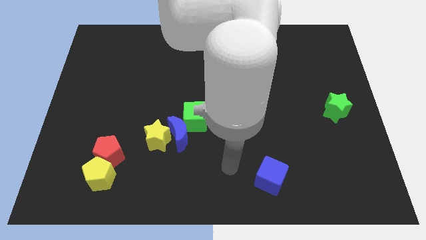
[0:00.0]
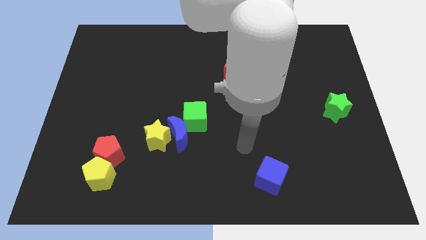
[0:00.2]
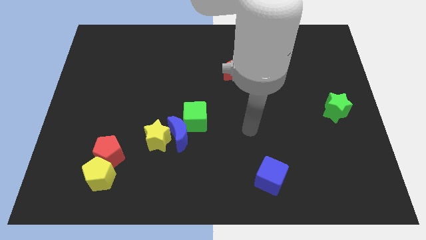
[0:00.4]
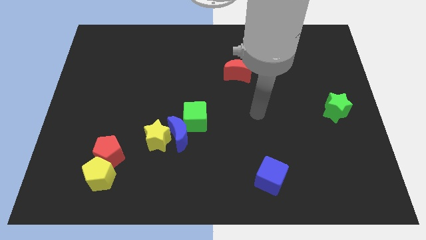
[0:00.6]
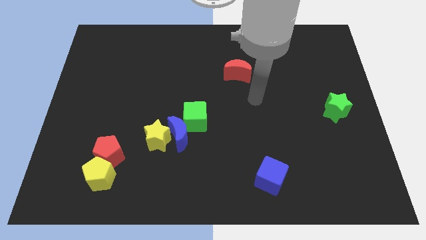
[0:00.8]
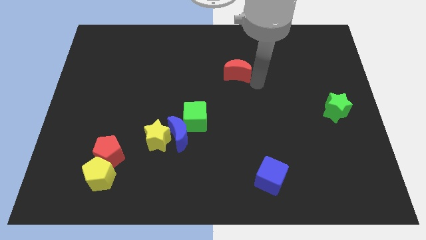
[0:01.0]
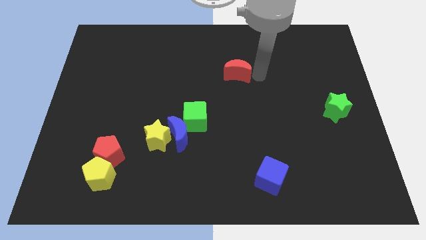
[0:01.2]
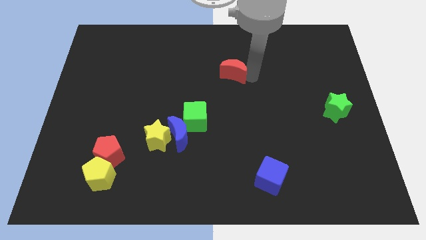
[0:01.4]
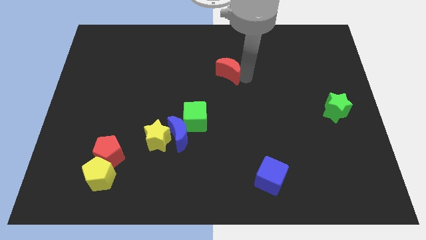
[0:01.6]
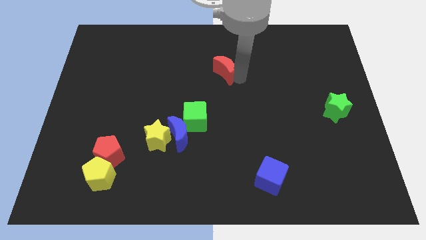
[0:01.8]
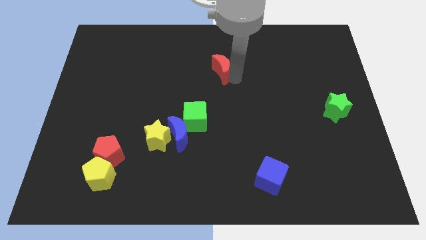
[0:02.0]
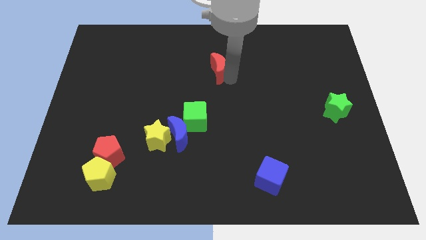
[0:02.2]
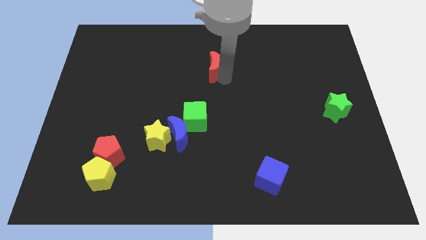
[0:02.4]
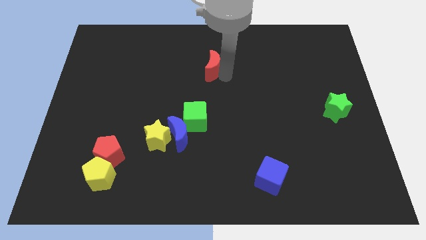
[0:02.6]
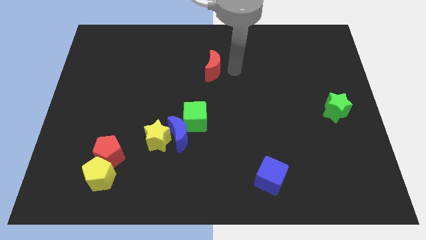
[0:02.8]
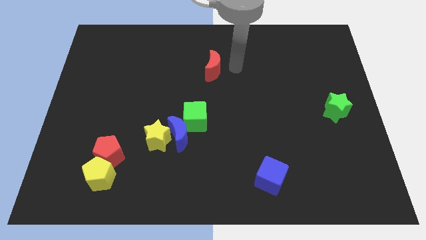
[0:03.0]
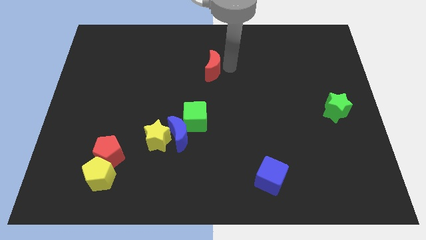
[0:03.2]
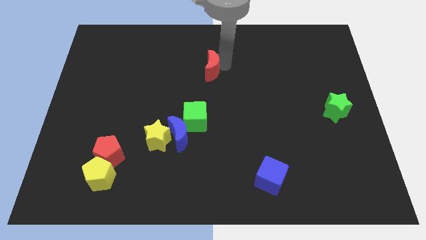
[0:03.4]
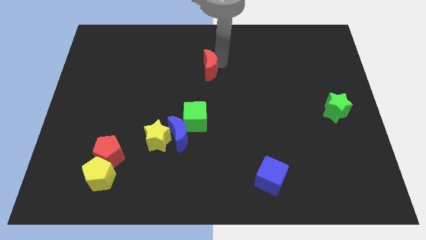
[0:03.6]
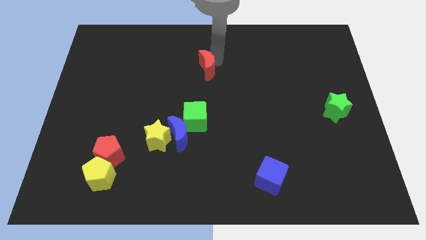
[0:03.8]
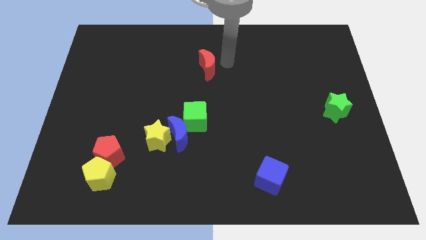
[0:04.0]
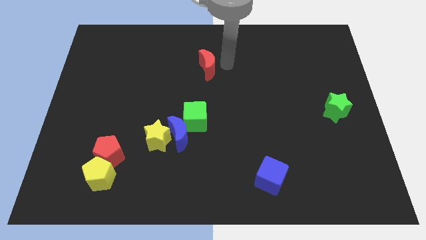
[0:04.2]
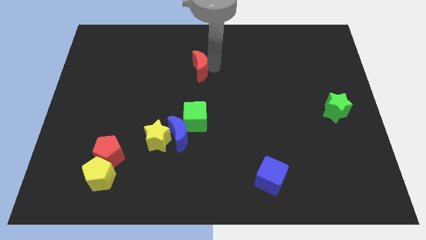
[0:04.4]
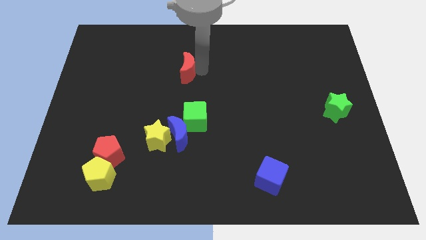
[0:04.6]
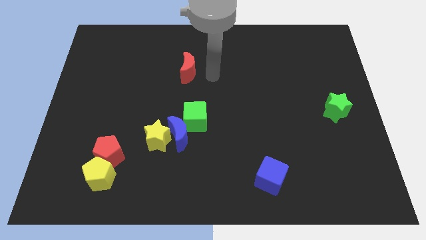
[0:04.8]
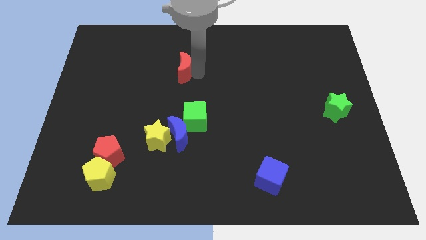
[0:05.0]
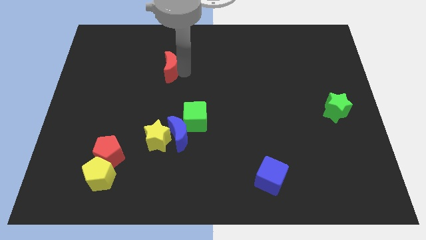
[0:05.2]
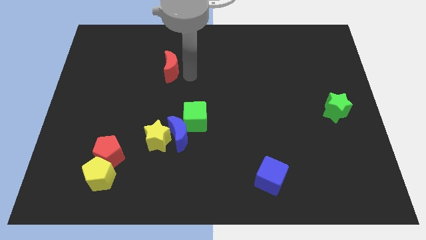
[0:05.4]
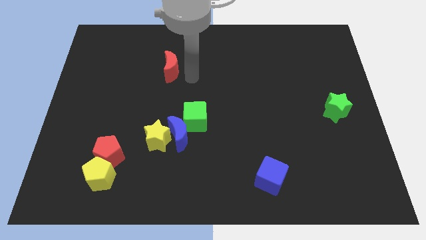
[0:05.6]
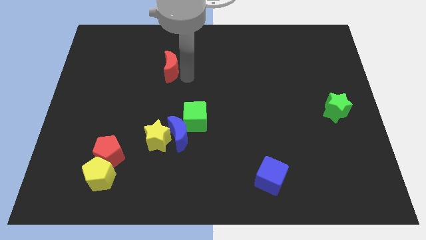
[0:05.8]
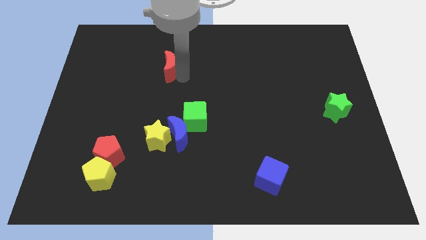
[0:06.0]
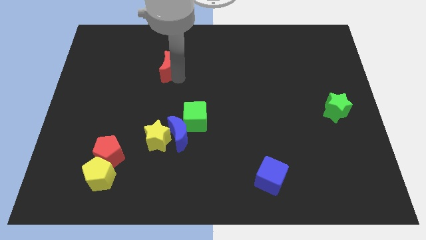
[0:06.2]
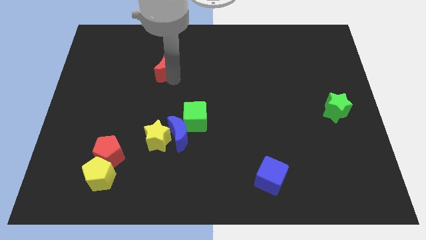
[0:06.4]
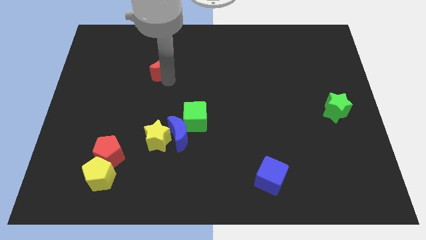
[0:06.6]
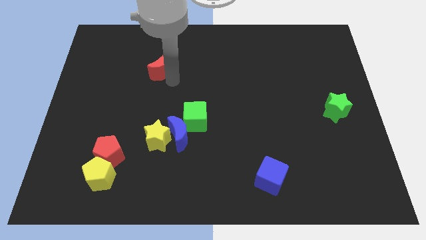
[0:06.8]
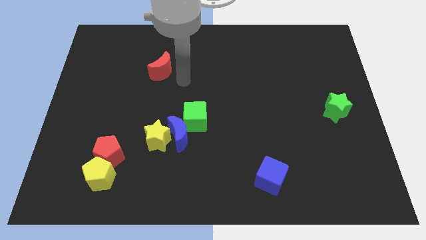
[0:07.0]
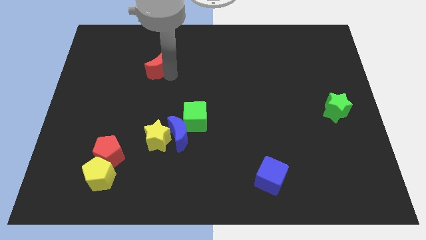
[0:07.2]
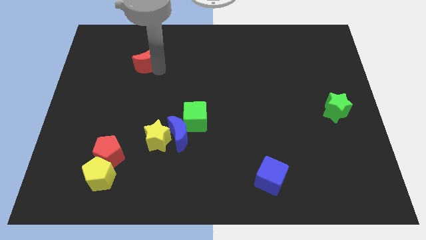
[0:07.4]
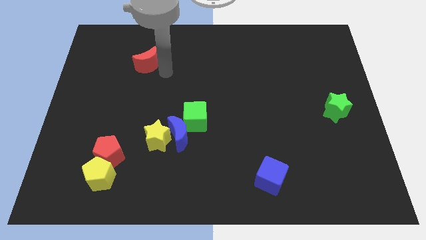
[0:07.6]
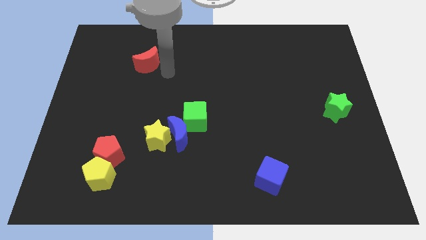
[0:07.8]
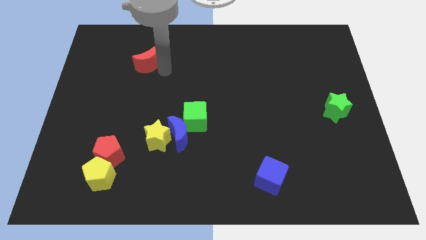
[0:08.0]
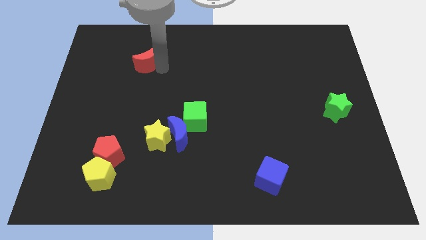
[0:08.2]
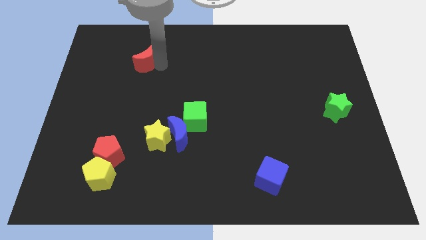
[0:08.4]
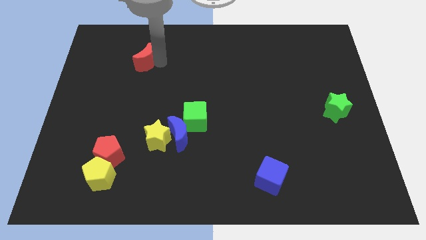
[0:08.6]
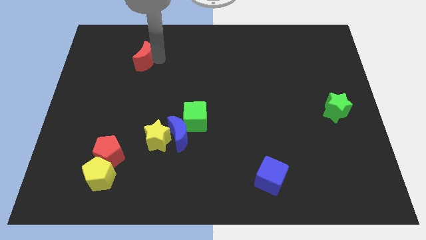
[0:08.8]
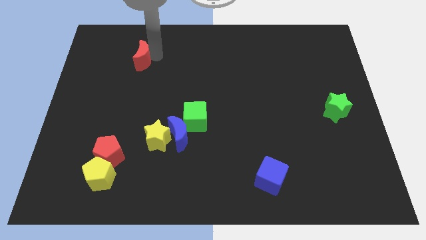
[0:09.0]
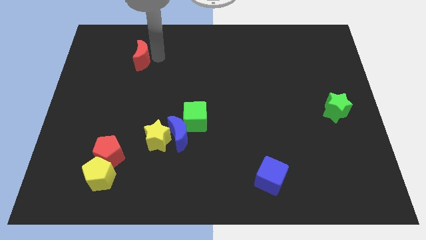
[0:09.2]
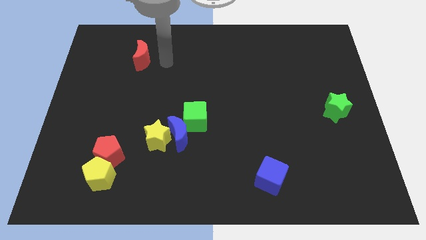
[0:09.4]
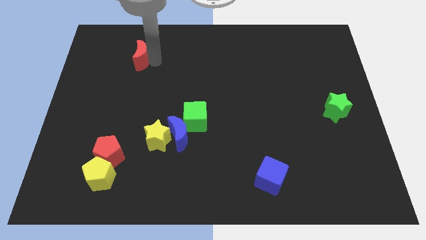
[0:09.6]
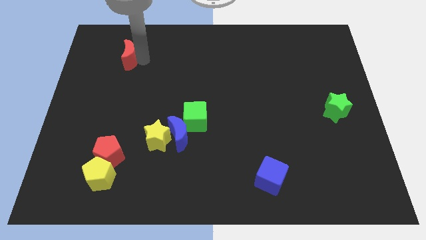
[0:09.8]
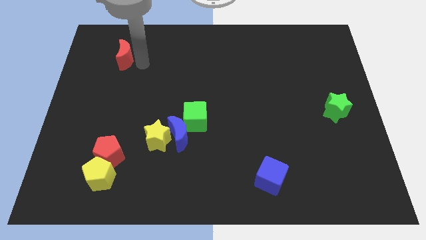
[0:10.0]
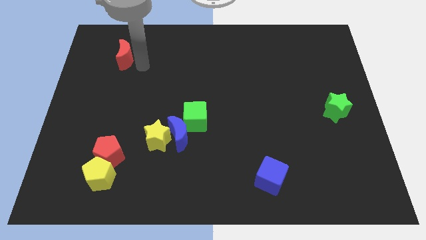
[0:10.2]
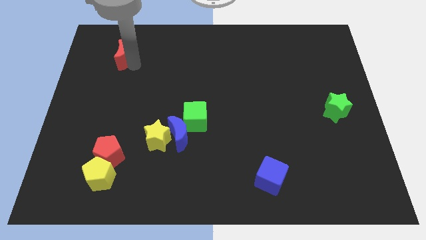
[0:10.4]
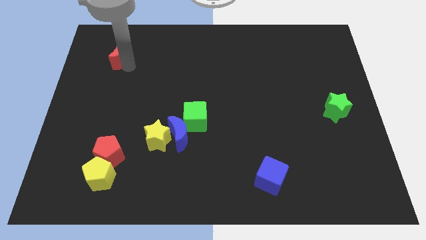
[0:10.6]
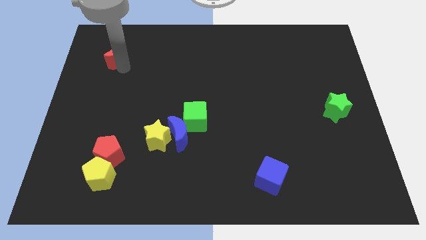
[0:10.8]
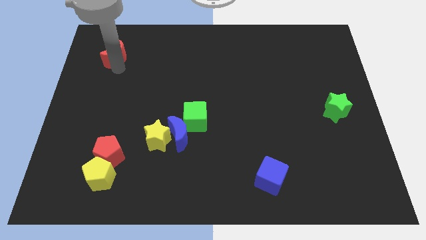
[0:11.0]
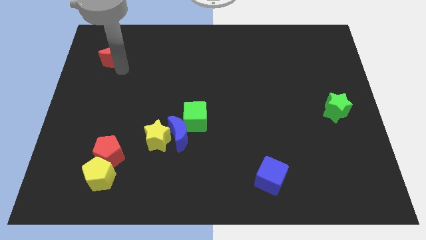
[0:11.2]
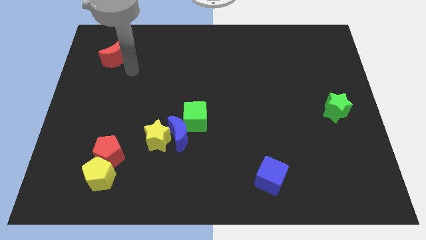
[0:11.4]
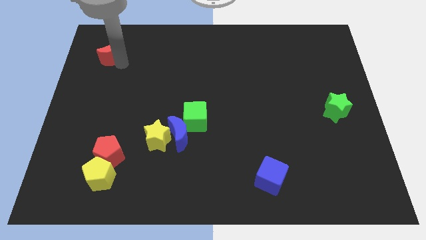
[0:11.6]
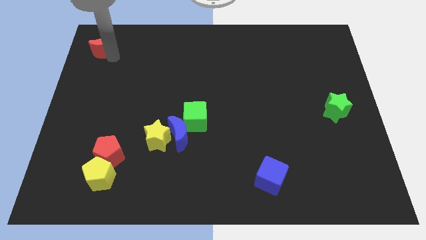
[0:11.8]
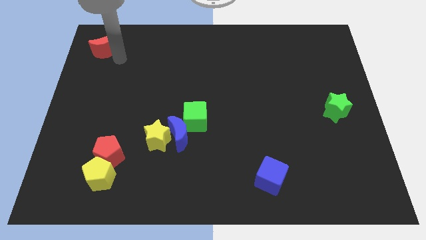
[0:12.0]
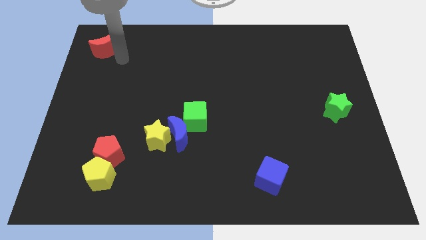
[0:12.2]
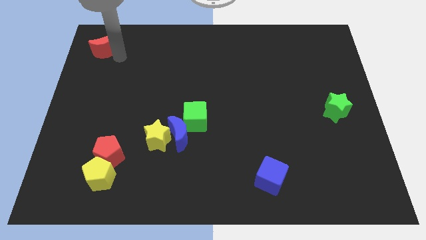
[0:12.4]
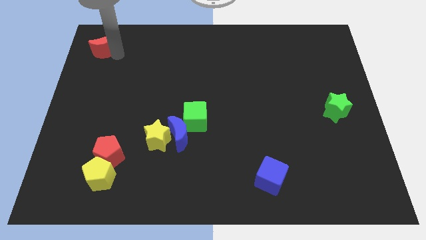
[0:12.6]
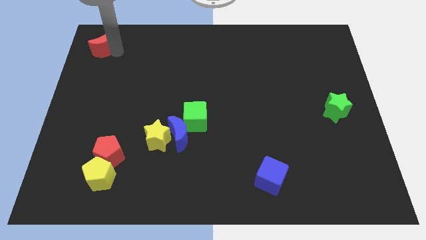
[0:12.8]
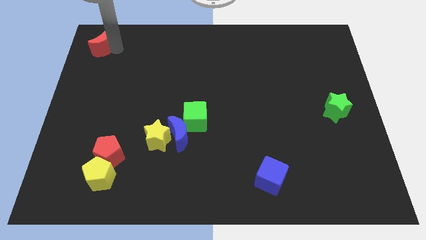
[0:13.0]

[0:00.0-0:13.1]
put the red moon to the top left corner

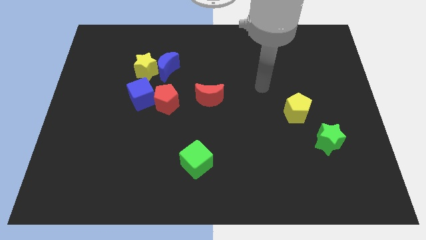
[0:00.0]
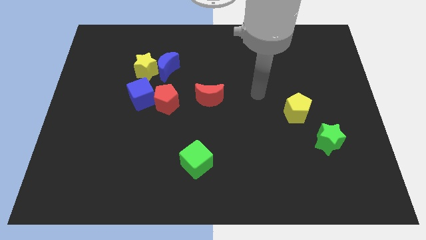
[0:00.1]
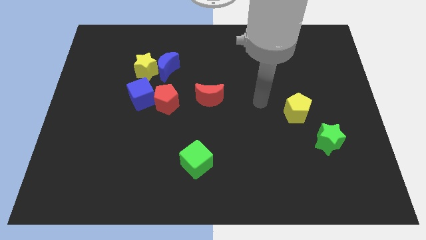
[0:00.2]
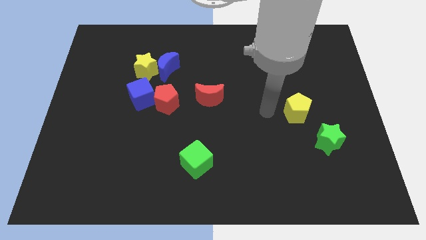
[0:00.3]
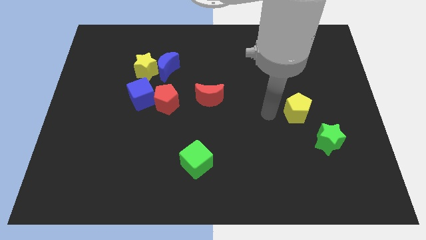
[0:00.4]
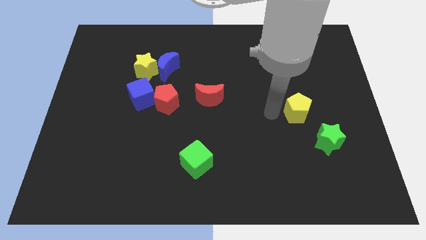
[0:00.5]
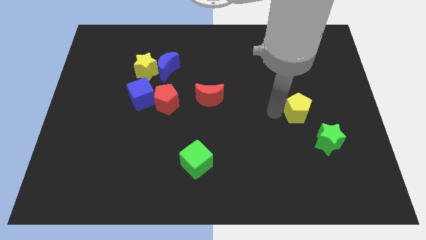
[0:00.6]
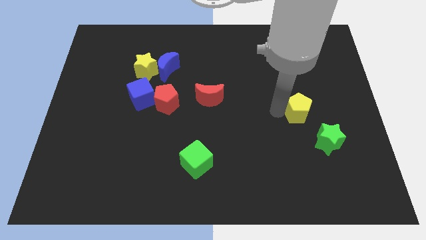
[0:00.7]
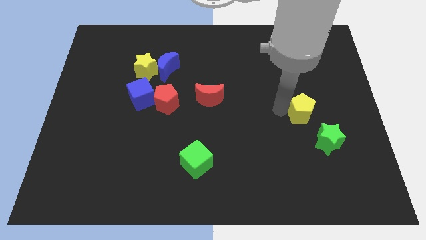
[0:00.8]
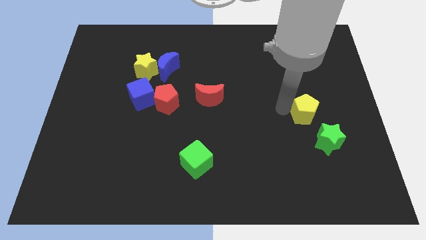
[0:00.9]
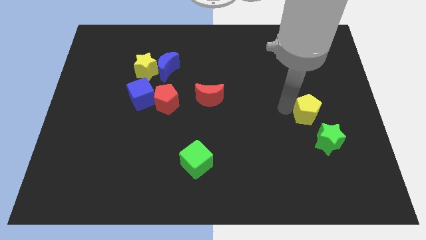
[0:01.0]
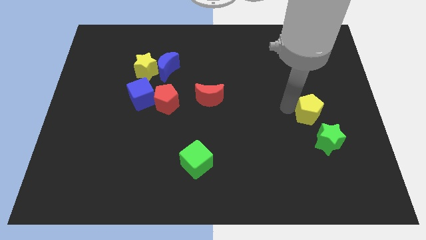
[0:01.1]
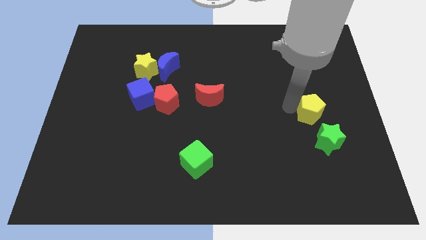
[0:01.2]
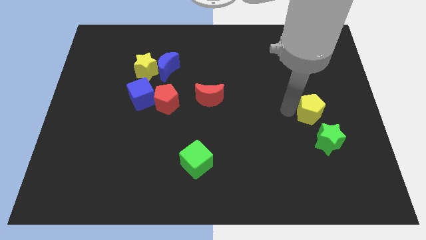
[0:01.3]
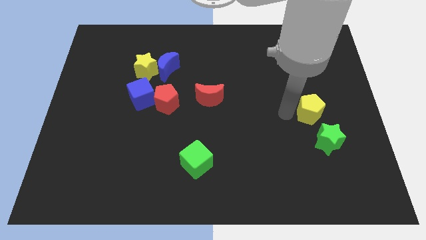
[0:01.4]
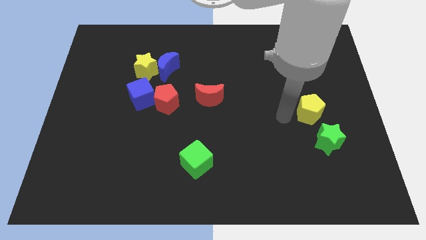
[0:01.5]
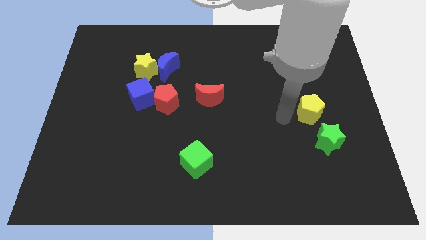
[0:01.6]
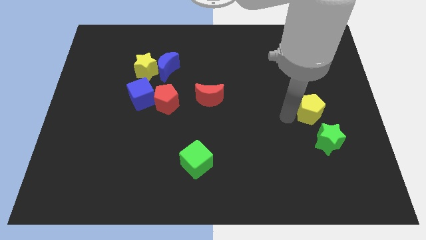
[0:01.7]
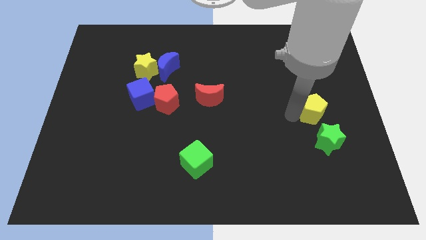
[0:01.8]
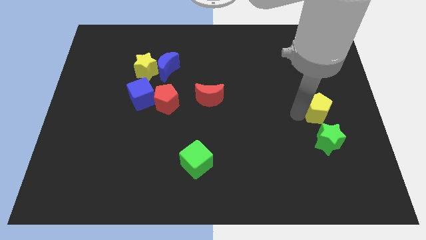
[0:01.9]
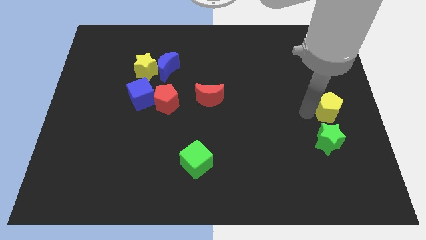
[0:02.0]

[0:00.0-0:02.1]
push the yellow pentagon to the center right
